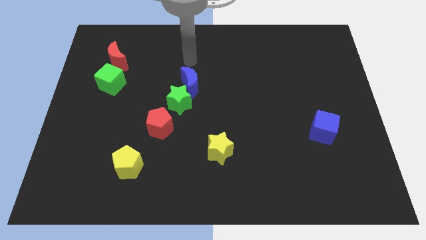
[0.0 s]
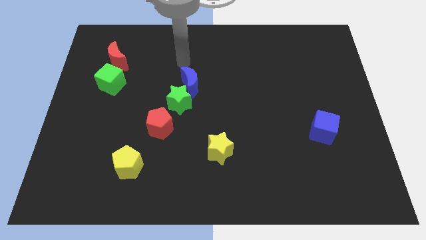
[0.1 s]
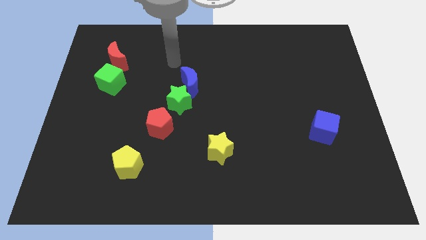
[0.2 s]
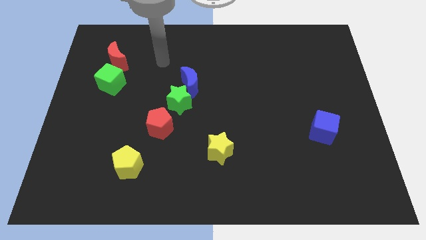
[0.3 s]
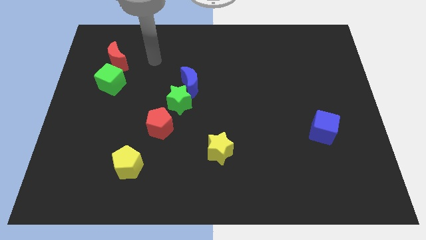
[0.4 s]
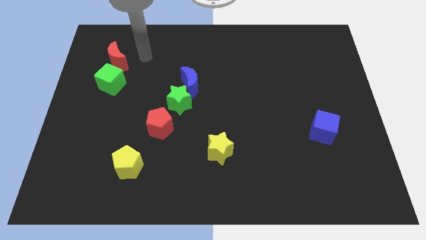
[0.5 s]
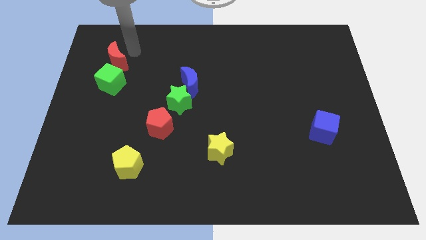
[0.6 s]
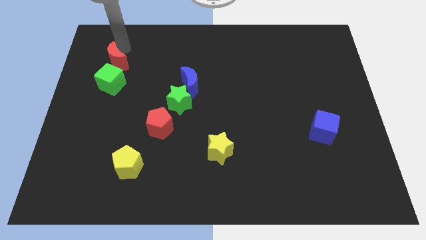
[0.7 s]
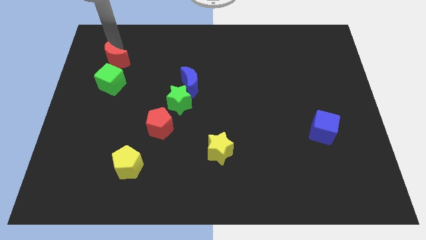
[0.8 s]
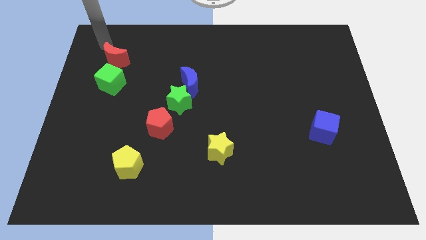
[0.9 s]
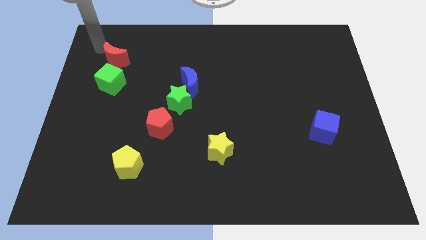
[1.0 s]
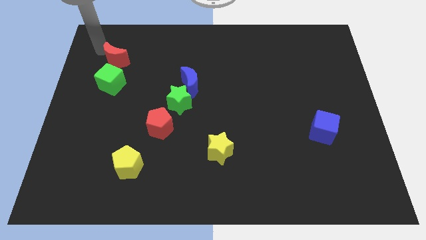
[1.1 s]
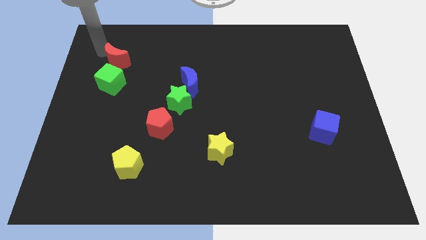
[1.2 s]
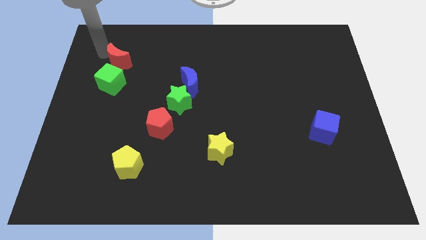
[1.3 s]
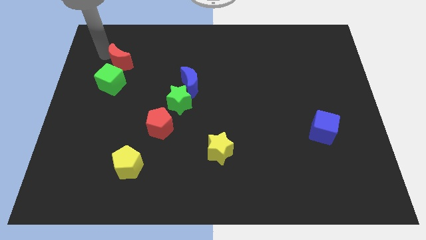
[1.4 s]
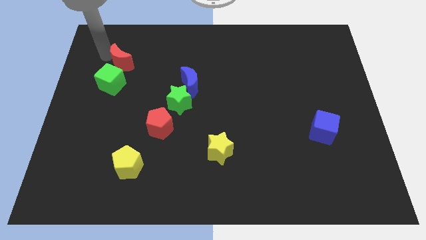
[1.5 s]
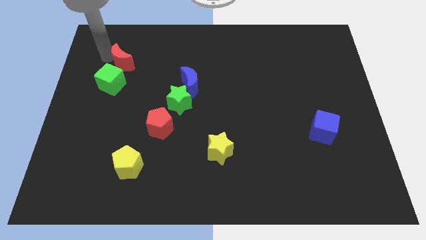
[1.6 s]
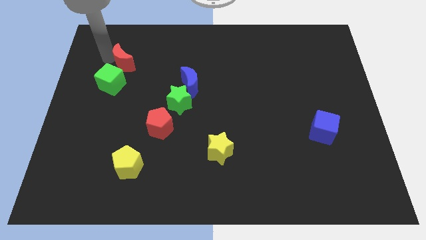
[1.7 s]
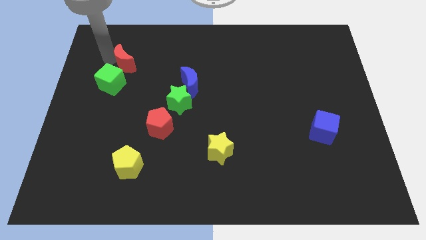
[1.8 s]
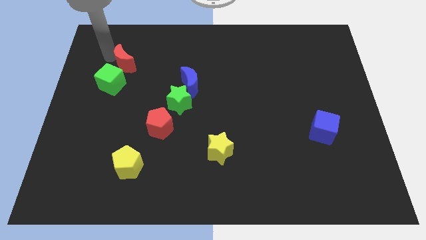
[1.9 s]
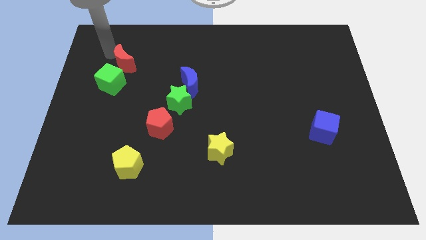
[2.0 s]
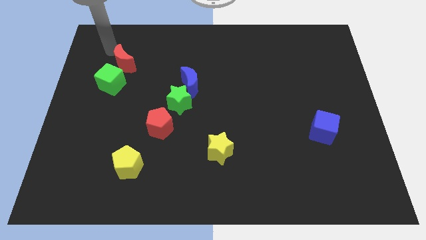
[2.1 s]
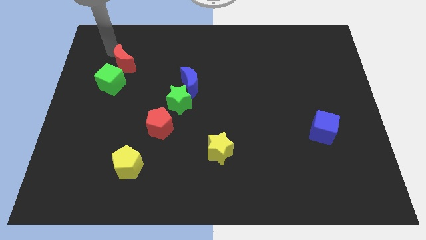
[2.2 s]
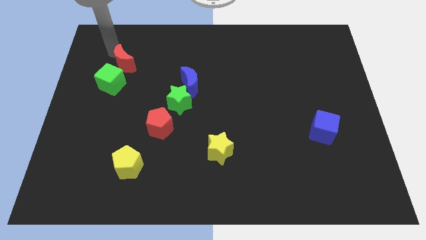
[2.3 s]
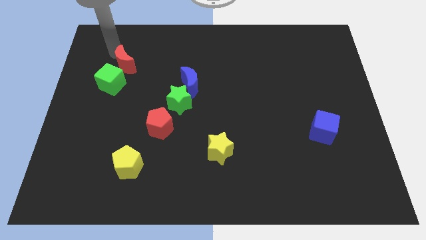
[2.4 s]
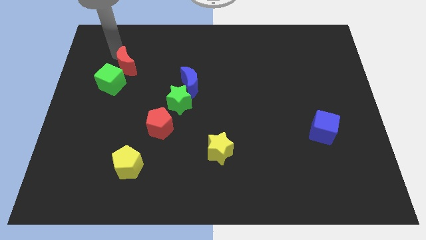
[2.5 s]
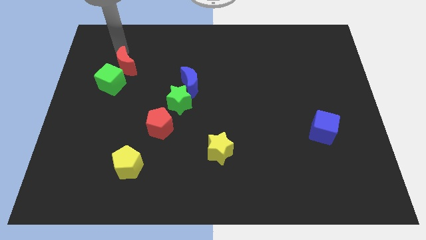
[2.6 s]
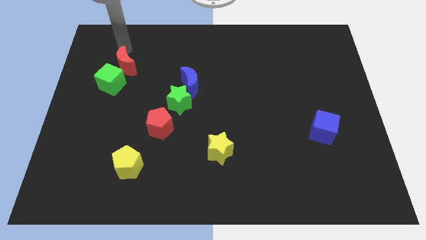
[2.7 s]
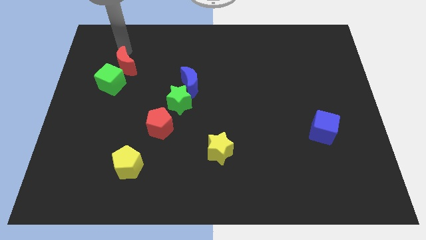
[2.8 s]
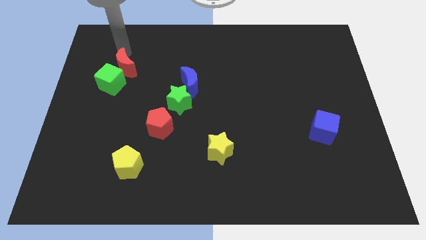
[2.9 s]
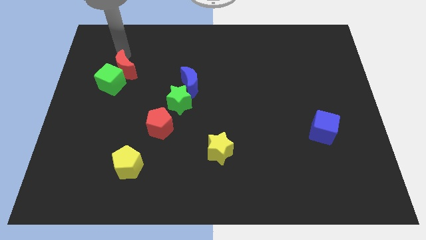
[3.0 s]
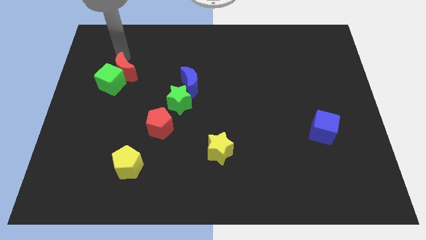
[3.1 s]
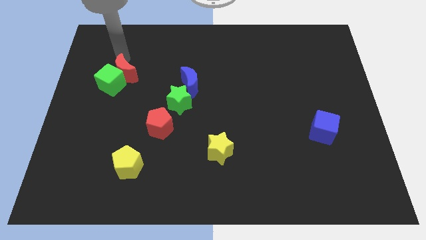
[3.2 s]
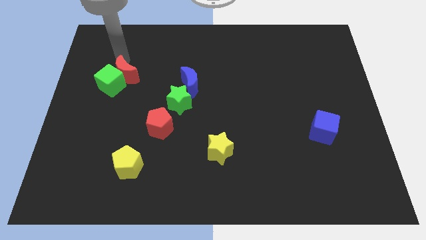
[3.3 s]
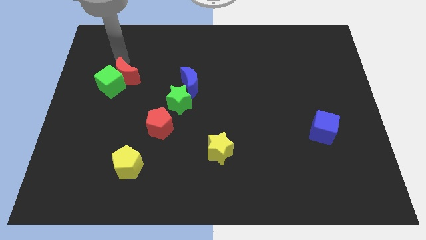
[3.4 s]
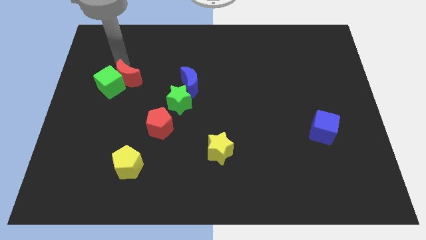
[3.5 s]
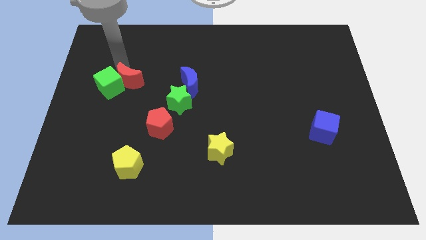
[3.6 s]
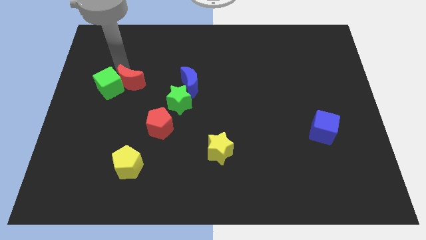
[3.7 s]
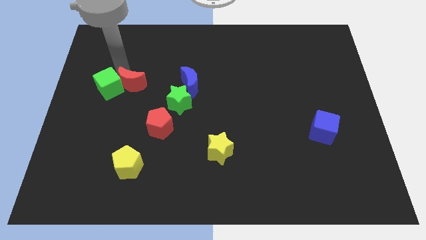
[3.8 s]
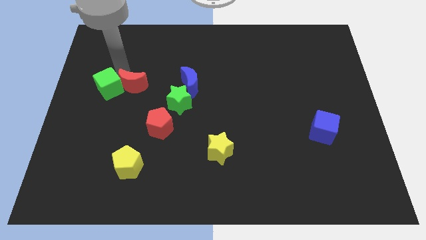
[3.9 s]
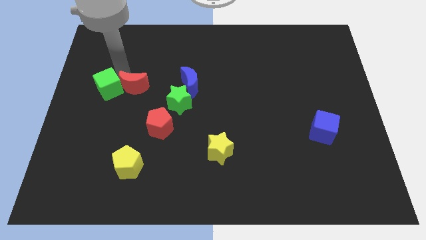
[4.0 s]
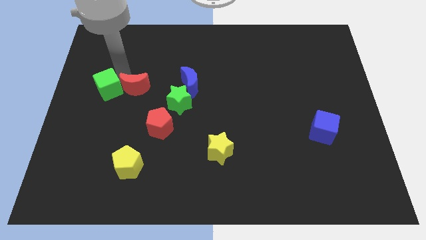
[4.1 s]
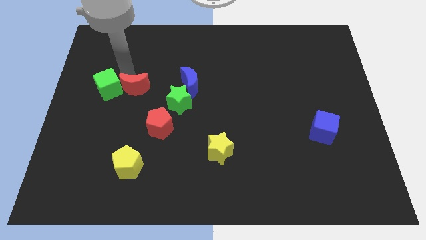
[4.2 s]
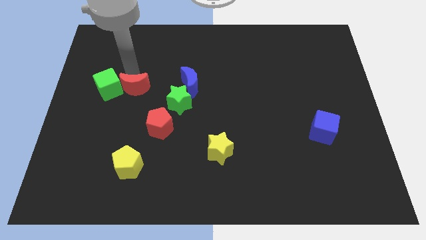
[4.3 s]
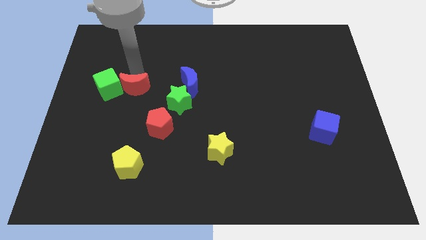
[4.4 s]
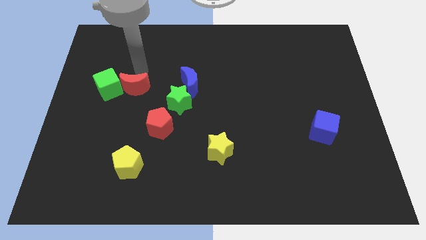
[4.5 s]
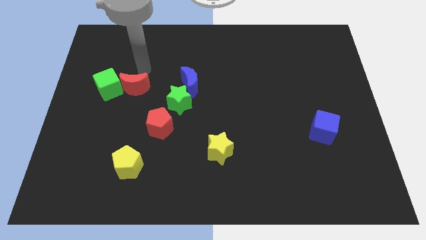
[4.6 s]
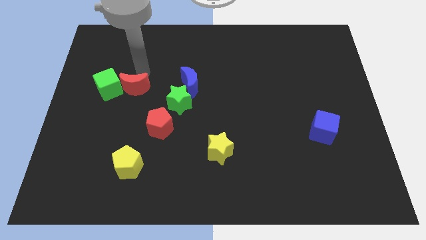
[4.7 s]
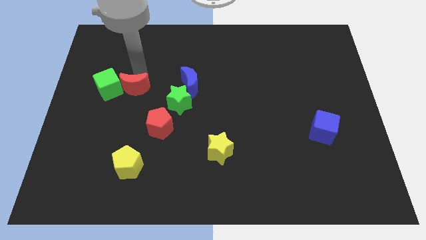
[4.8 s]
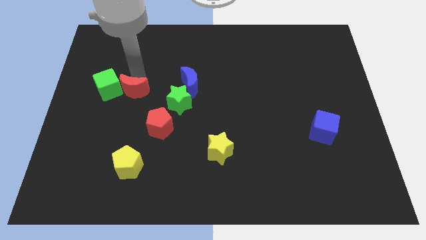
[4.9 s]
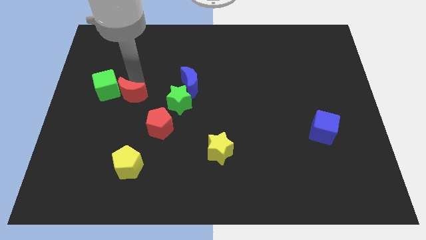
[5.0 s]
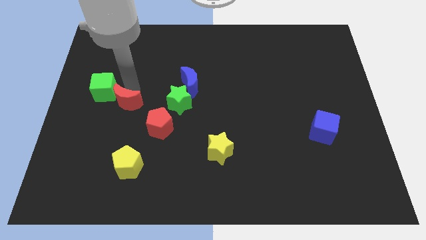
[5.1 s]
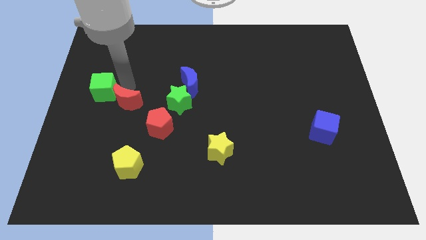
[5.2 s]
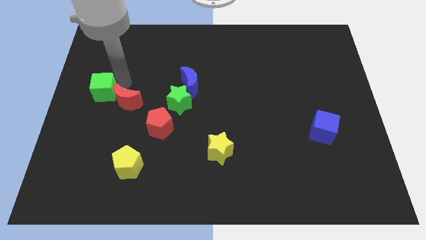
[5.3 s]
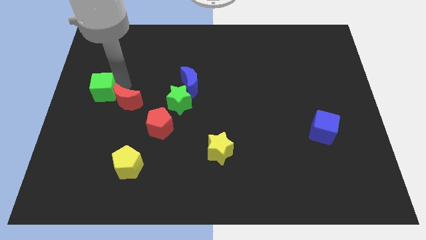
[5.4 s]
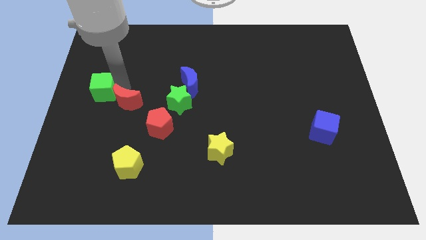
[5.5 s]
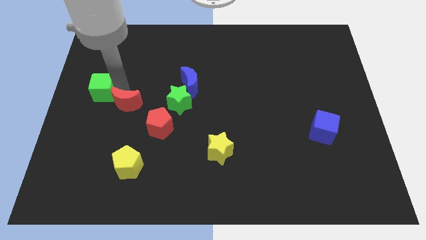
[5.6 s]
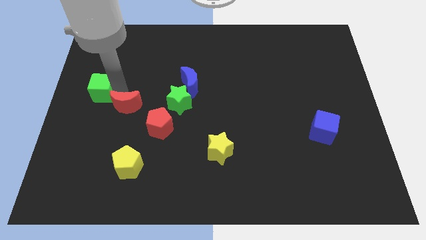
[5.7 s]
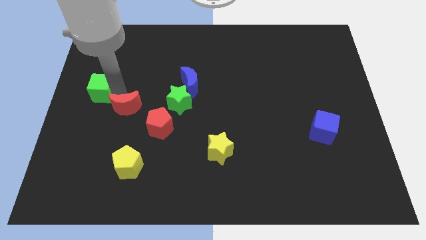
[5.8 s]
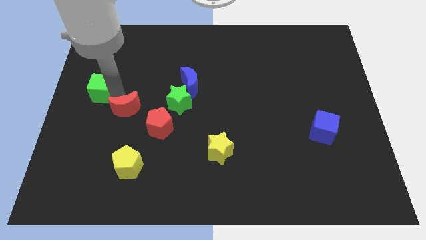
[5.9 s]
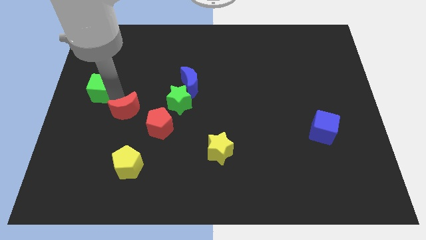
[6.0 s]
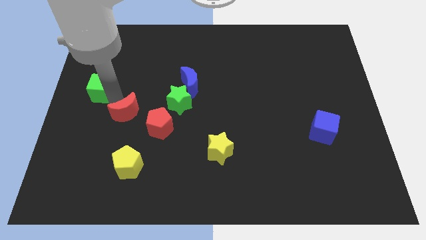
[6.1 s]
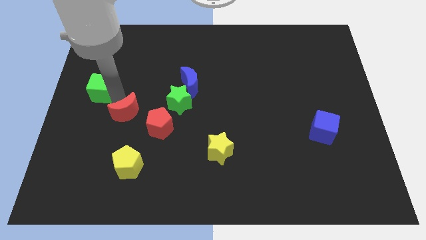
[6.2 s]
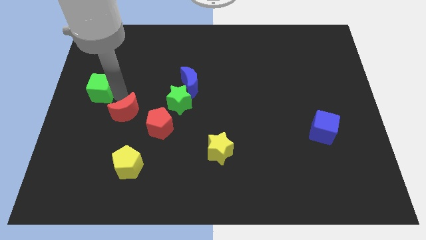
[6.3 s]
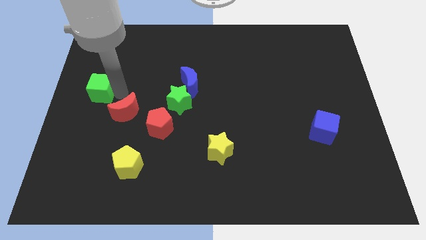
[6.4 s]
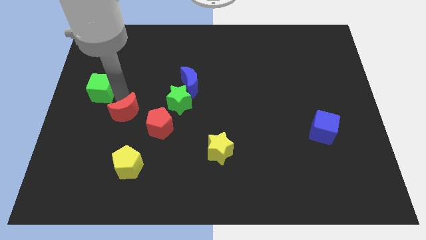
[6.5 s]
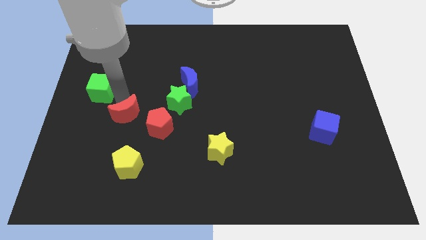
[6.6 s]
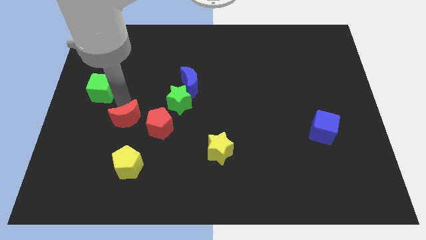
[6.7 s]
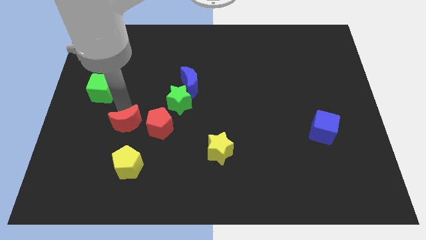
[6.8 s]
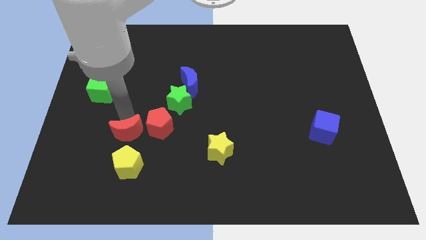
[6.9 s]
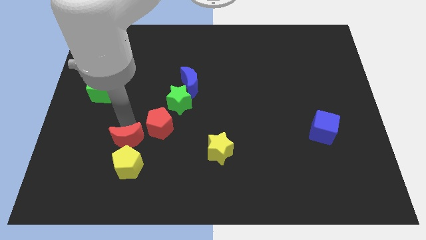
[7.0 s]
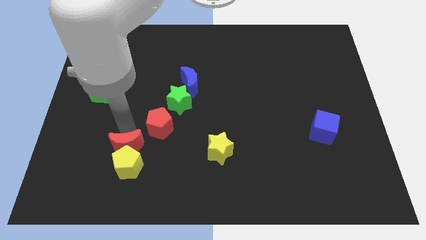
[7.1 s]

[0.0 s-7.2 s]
slide the red moon towards the yellow pentagon

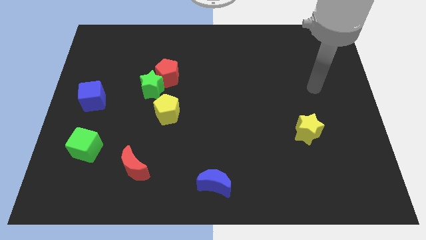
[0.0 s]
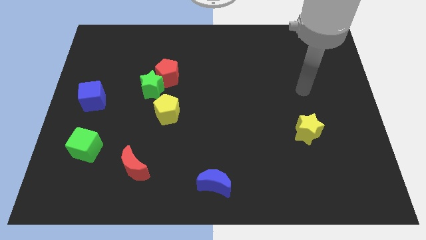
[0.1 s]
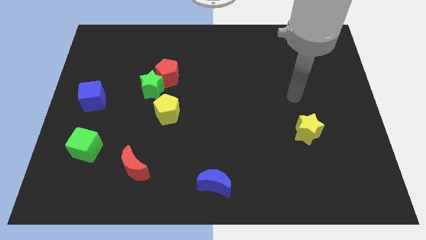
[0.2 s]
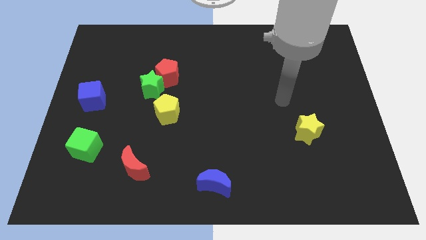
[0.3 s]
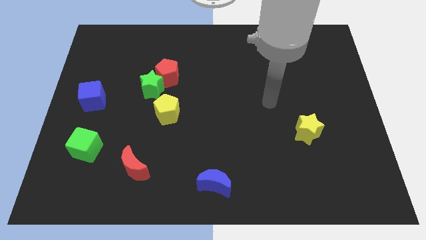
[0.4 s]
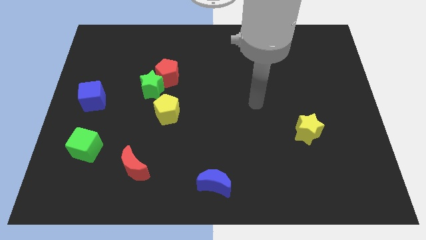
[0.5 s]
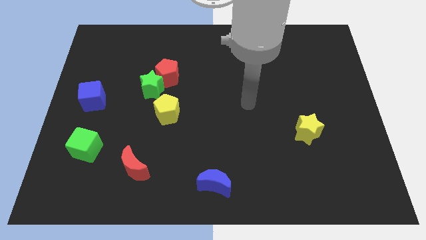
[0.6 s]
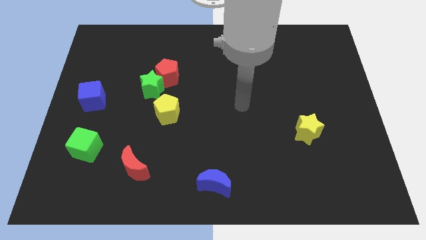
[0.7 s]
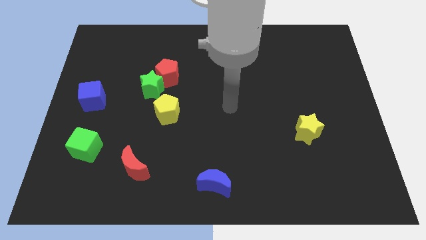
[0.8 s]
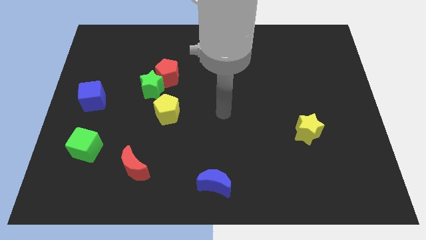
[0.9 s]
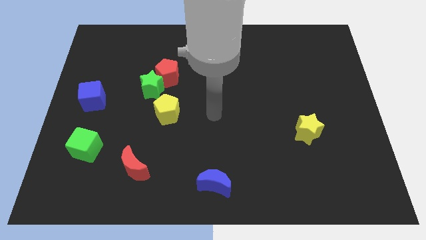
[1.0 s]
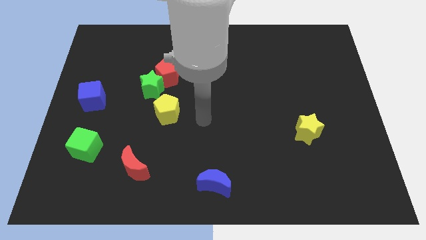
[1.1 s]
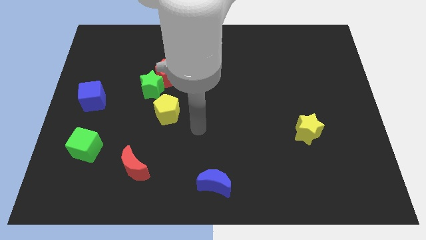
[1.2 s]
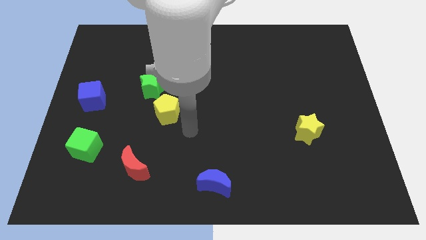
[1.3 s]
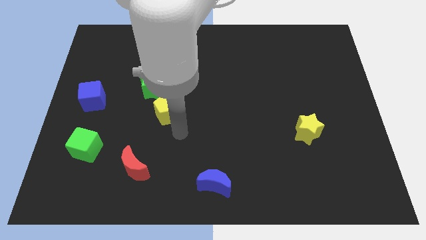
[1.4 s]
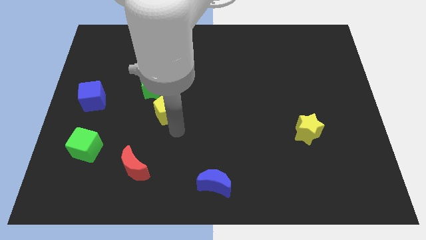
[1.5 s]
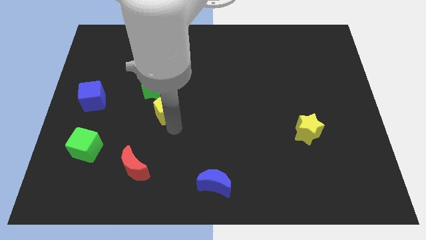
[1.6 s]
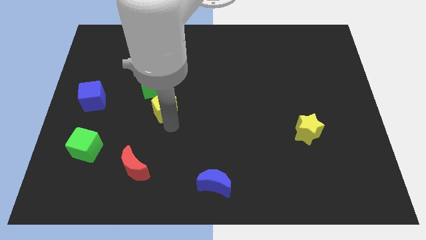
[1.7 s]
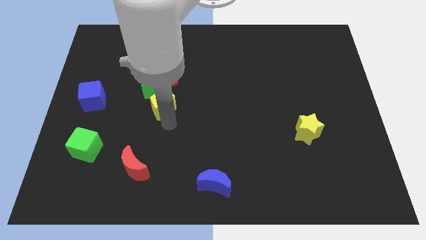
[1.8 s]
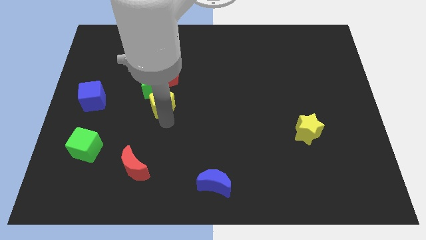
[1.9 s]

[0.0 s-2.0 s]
slide the yellow pentagon next to the green star
